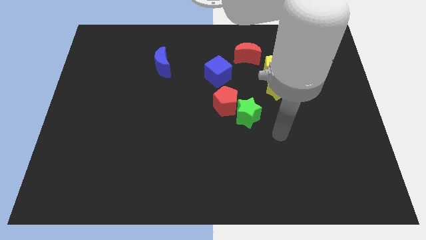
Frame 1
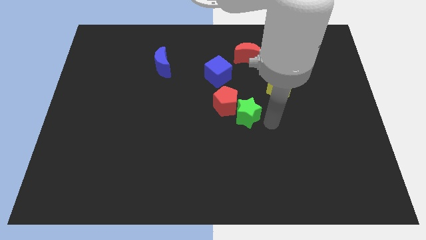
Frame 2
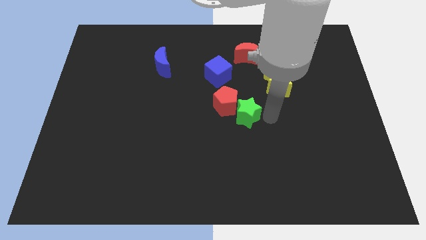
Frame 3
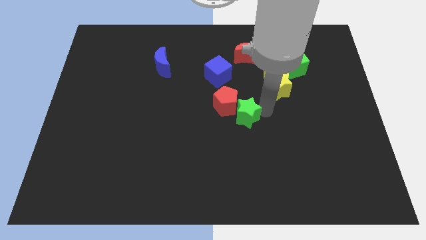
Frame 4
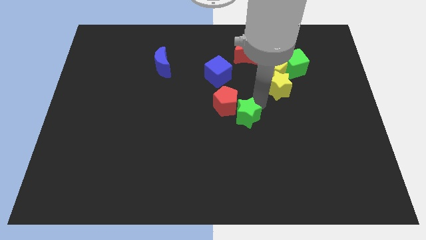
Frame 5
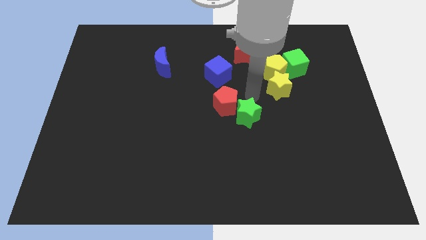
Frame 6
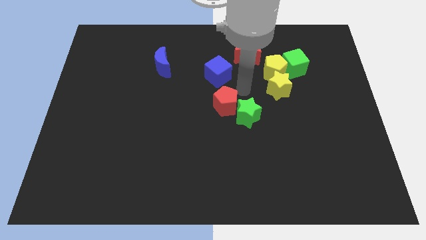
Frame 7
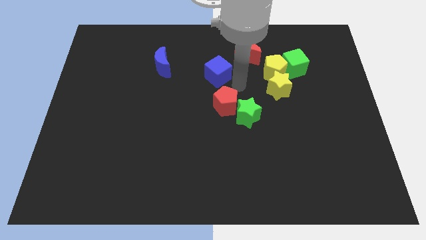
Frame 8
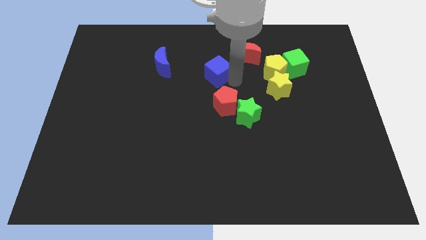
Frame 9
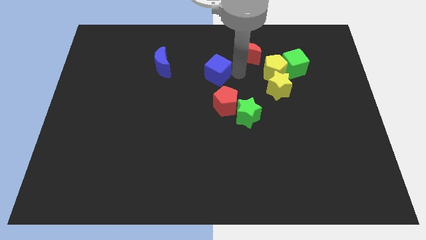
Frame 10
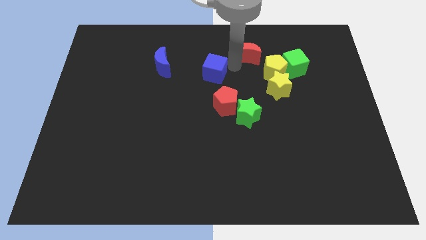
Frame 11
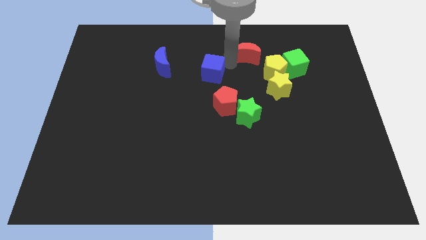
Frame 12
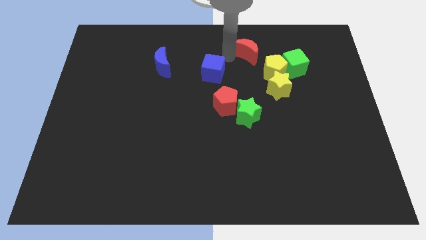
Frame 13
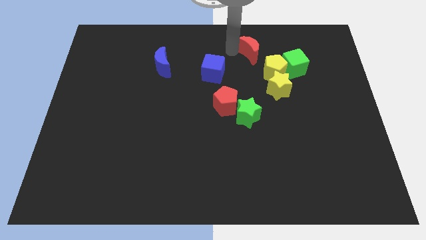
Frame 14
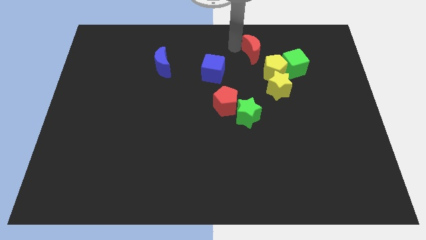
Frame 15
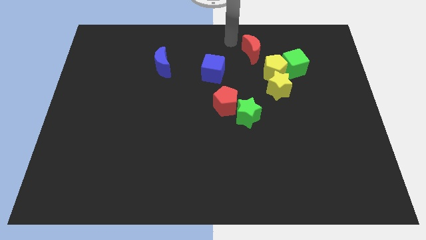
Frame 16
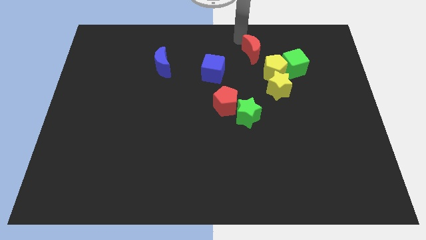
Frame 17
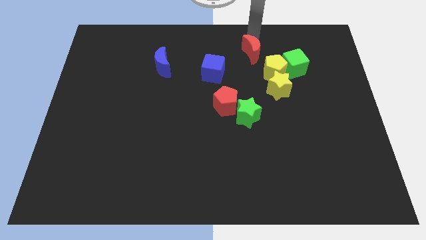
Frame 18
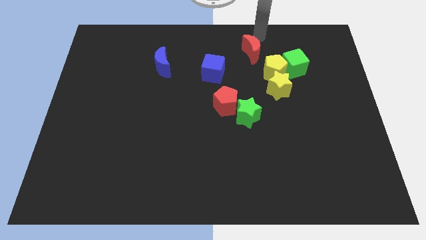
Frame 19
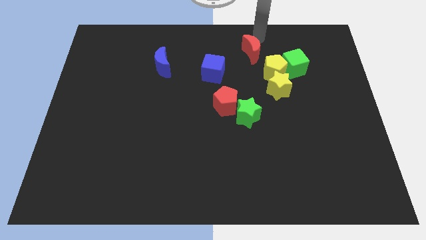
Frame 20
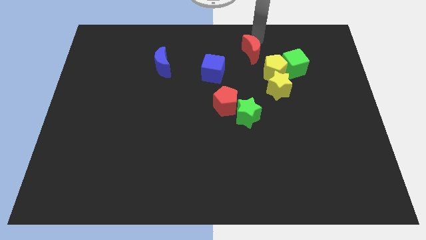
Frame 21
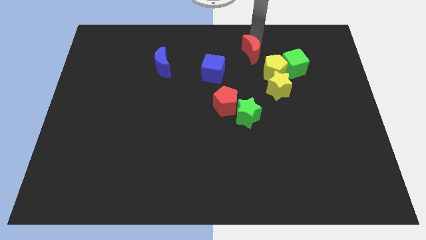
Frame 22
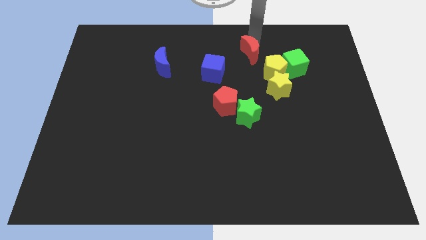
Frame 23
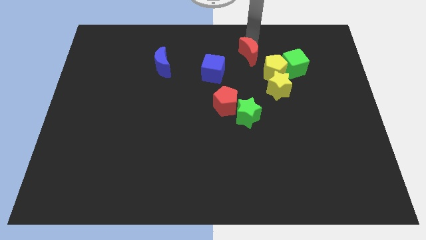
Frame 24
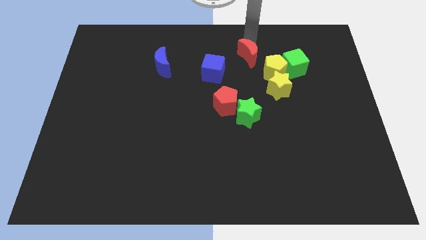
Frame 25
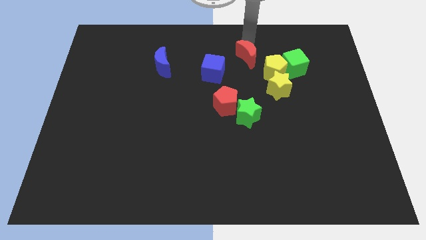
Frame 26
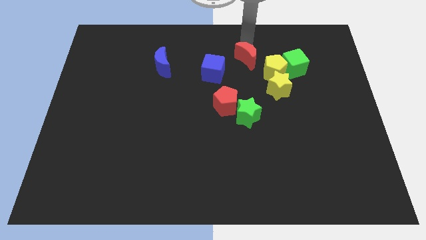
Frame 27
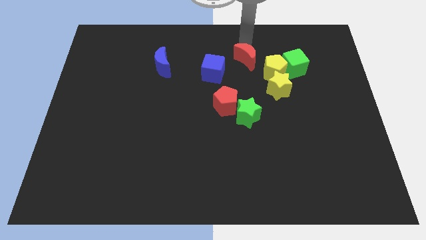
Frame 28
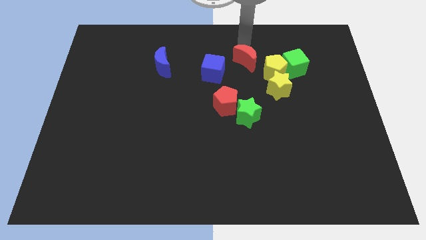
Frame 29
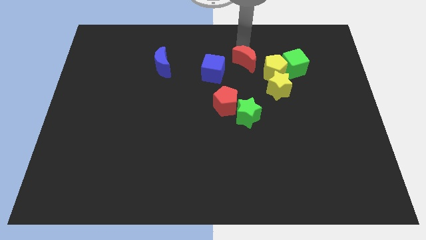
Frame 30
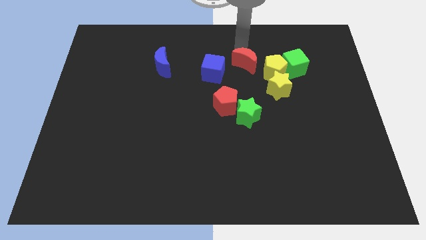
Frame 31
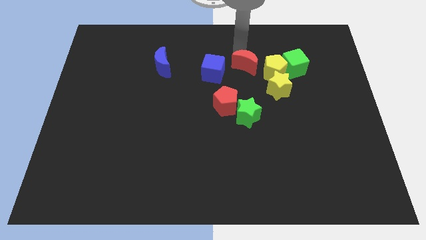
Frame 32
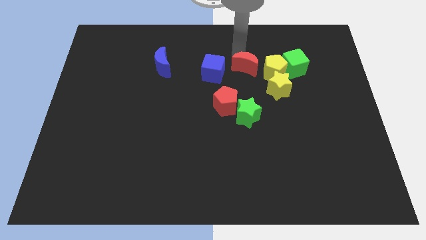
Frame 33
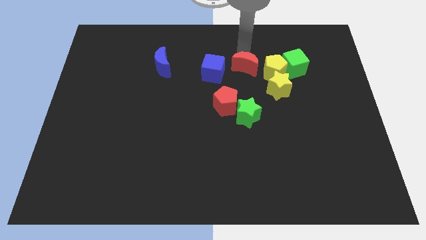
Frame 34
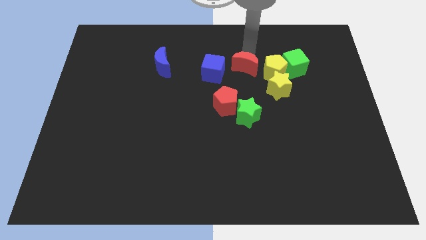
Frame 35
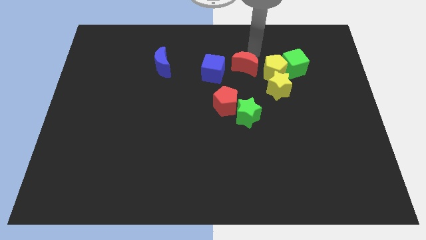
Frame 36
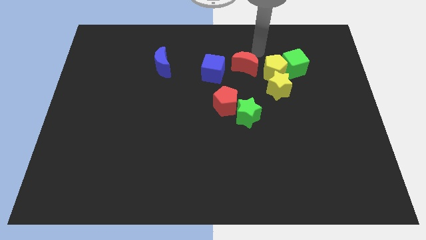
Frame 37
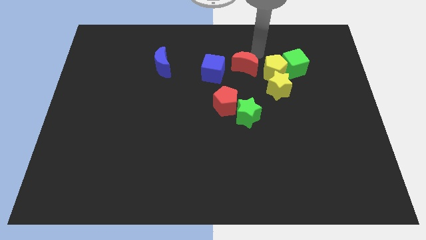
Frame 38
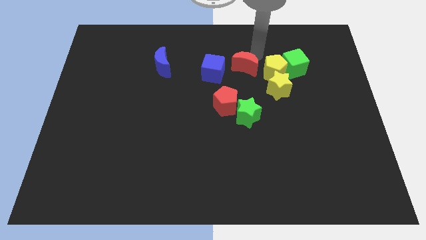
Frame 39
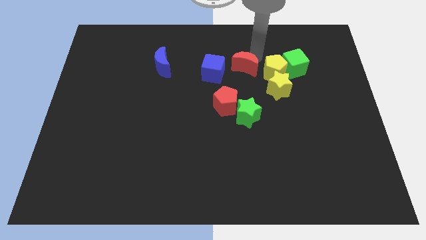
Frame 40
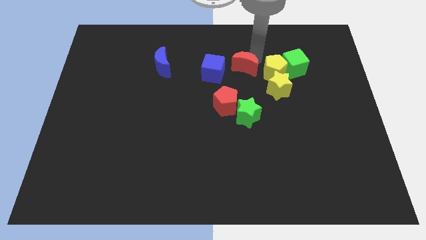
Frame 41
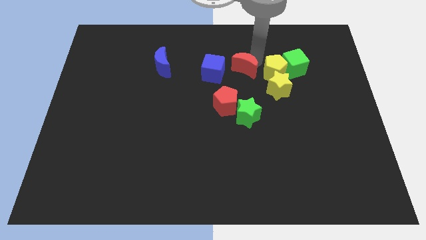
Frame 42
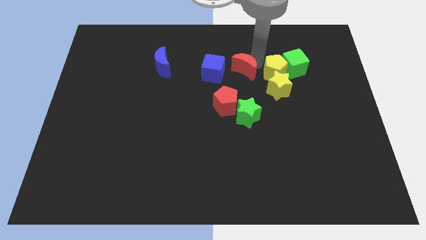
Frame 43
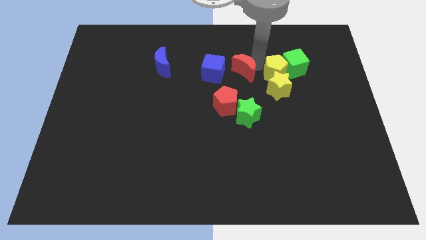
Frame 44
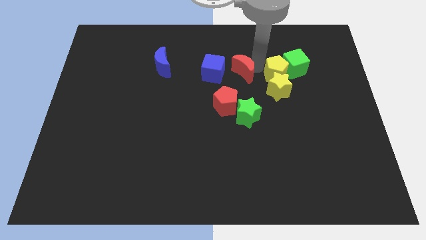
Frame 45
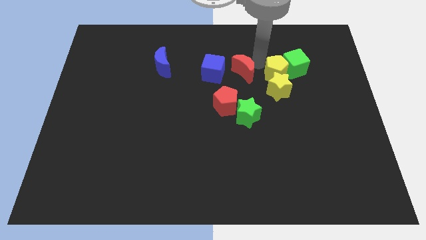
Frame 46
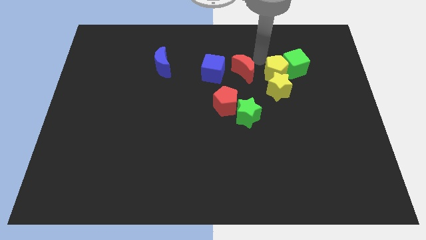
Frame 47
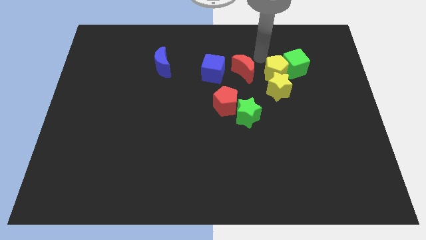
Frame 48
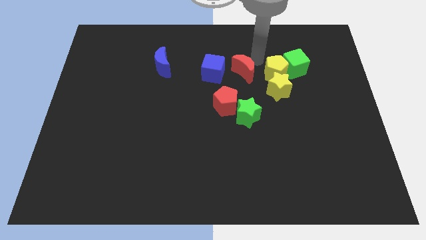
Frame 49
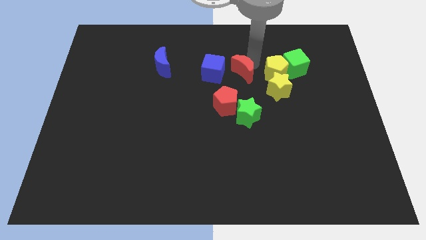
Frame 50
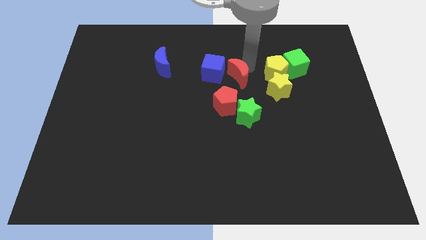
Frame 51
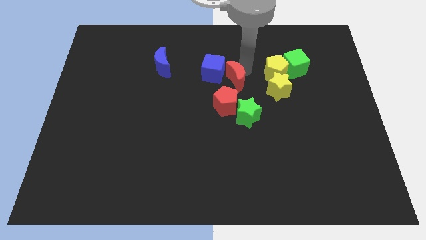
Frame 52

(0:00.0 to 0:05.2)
slightly slide the red moon downwards and left diagonally

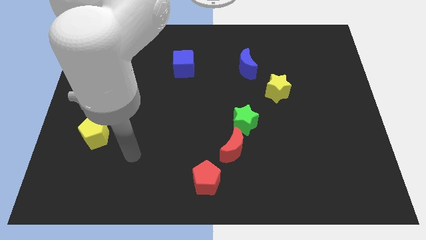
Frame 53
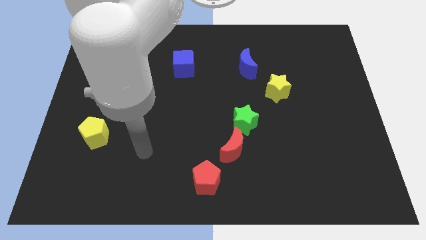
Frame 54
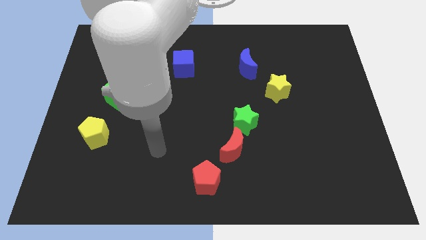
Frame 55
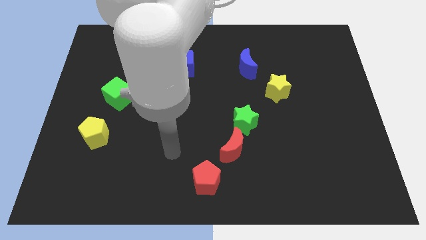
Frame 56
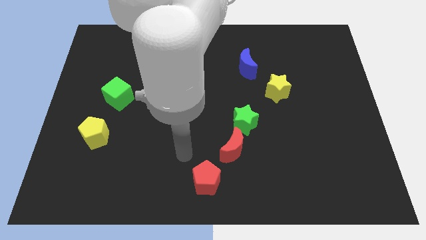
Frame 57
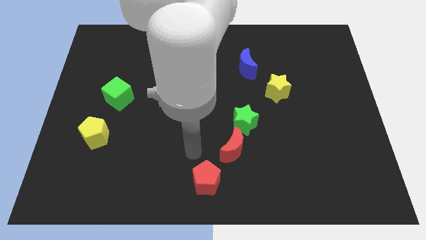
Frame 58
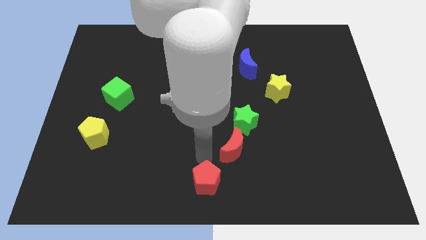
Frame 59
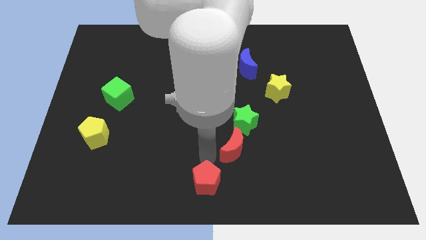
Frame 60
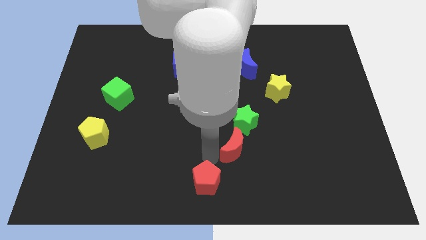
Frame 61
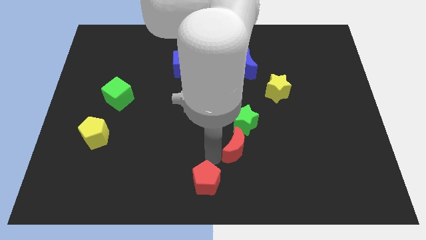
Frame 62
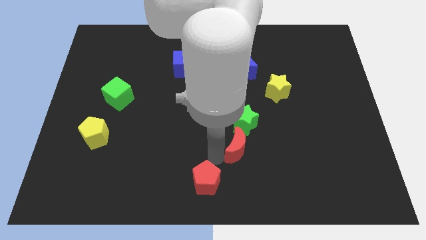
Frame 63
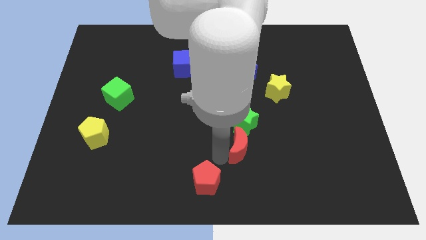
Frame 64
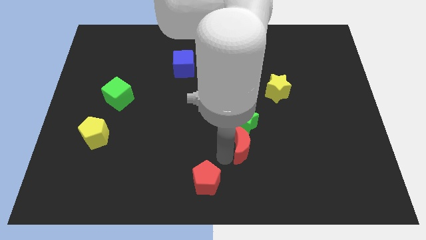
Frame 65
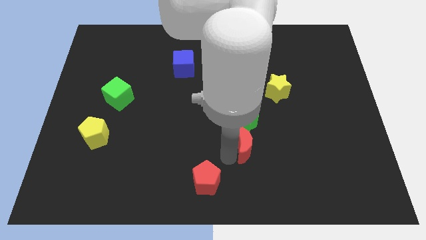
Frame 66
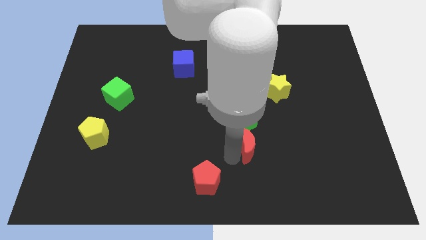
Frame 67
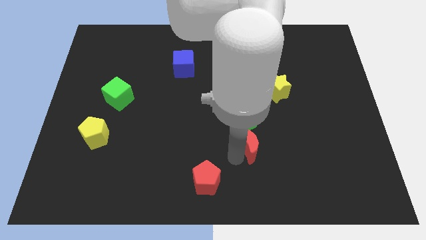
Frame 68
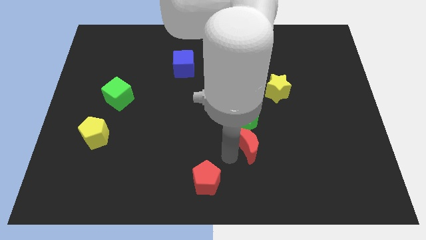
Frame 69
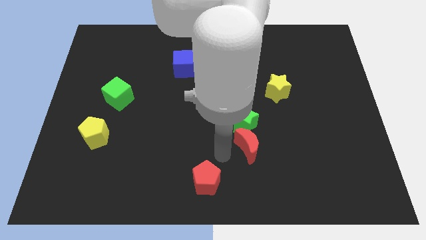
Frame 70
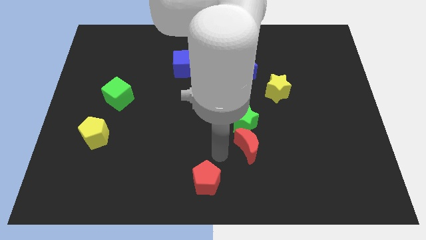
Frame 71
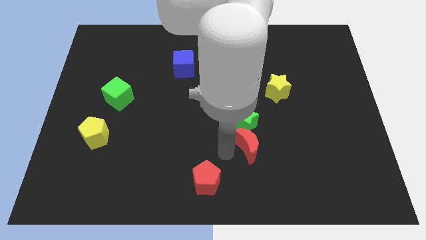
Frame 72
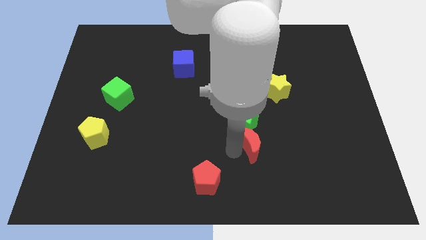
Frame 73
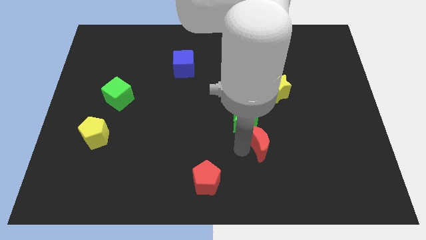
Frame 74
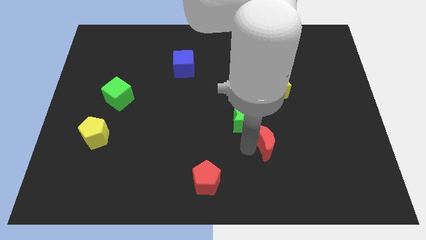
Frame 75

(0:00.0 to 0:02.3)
push the red moon to the right slightly

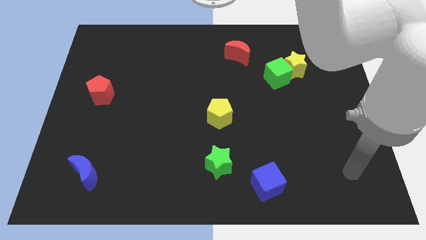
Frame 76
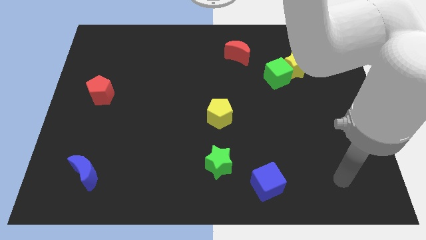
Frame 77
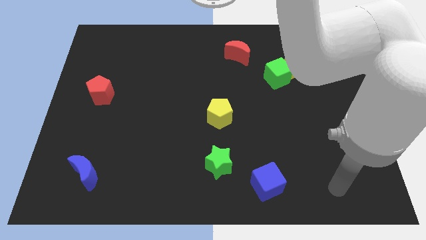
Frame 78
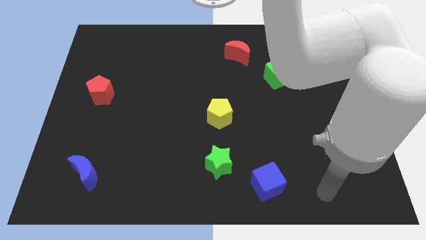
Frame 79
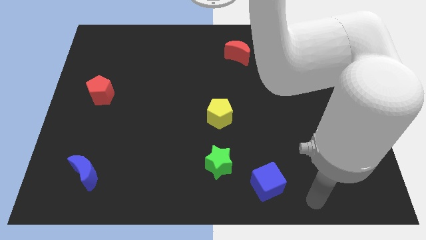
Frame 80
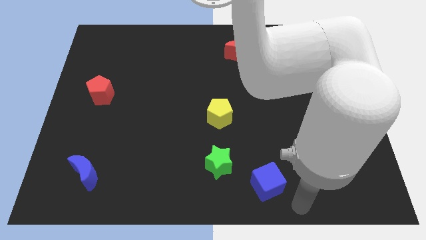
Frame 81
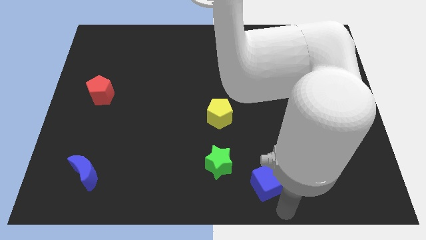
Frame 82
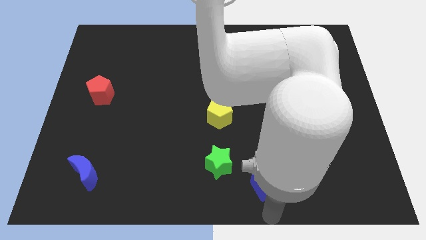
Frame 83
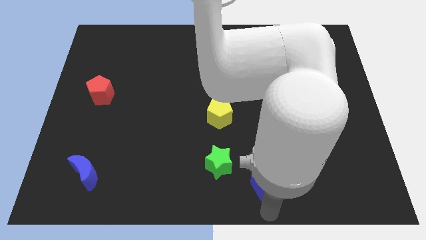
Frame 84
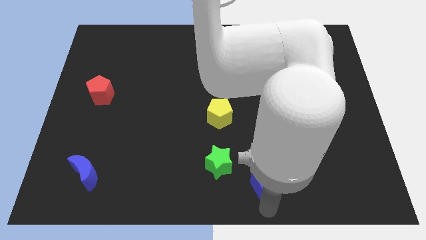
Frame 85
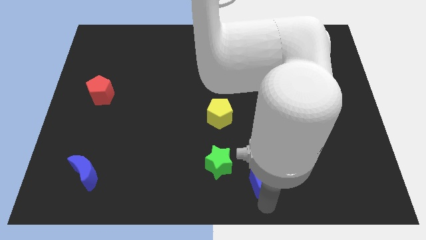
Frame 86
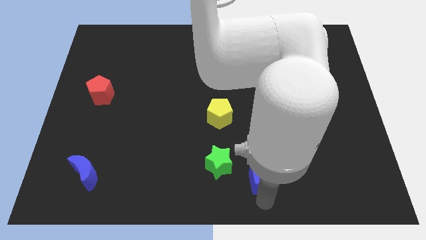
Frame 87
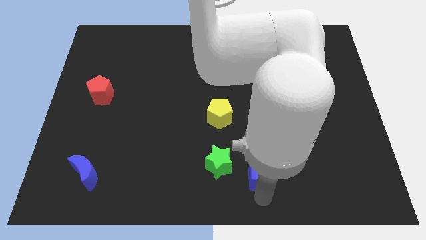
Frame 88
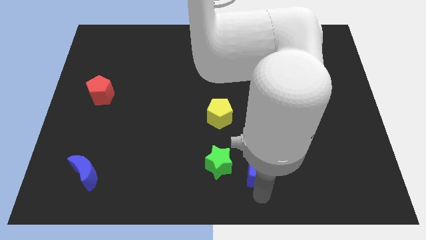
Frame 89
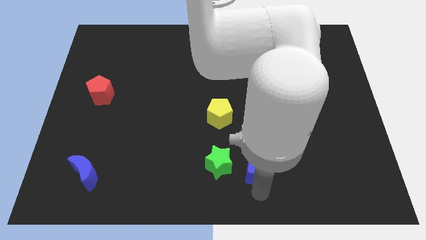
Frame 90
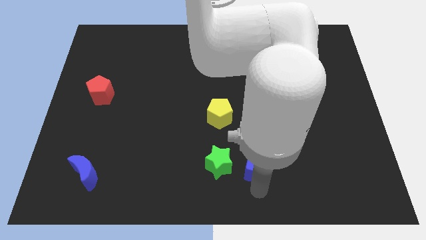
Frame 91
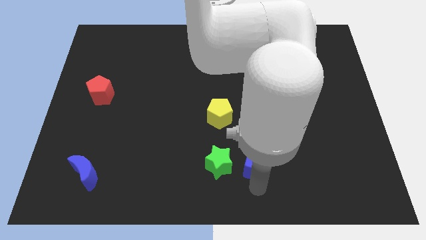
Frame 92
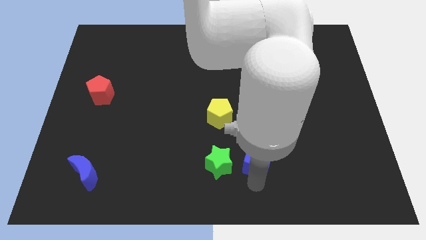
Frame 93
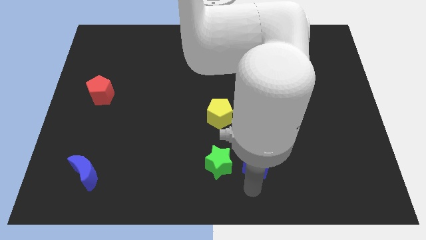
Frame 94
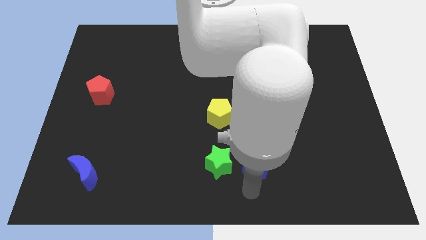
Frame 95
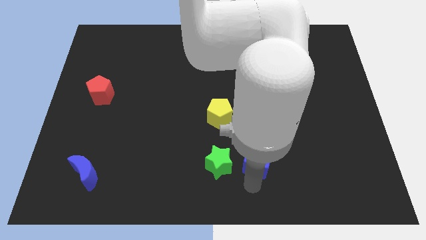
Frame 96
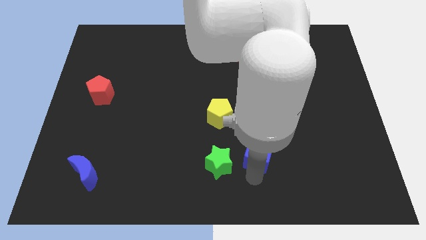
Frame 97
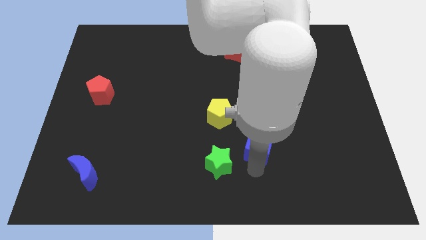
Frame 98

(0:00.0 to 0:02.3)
slide the blue cube up slightly
